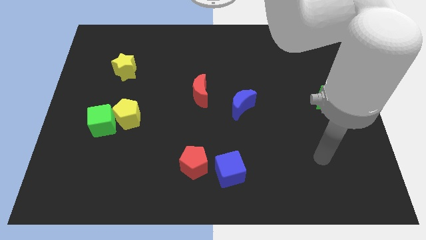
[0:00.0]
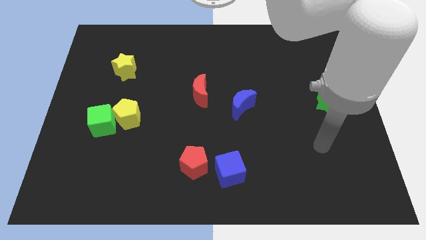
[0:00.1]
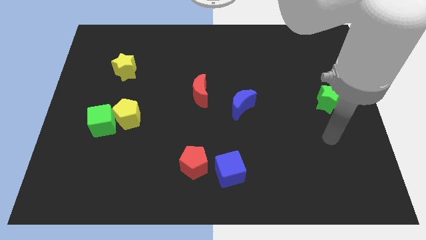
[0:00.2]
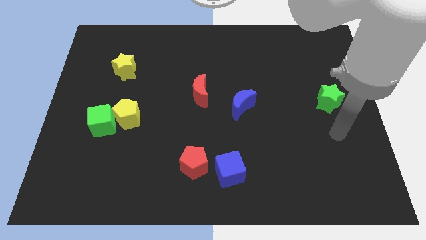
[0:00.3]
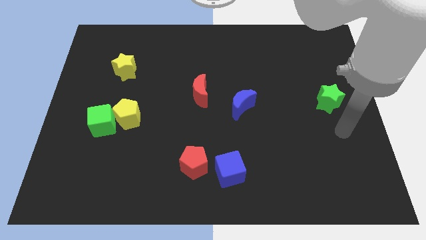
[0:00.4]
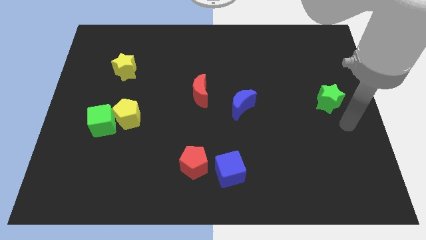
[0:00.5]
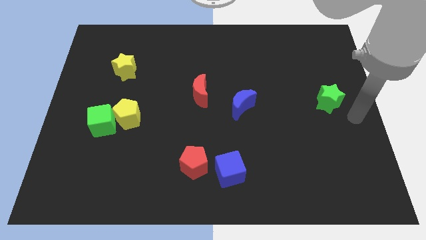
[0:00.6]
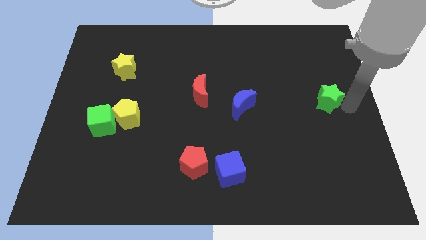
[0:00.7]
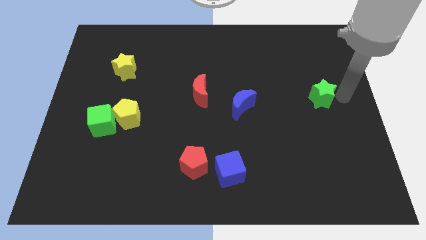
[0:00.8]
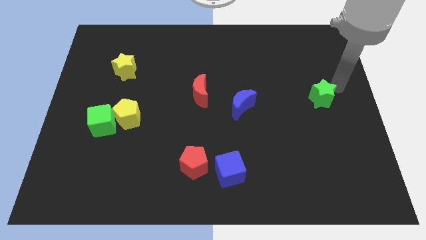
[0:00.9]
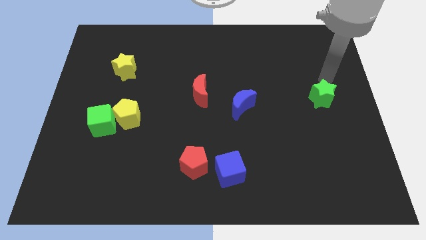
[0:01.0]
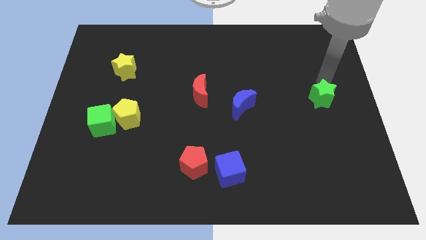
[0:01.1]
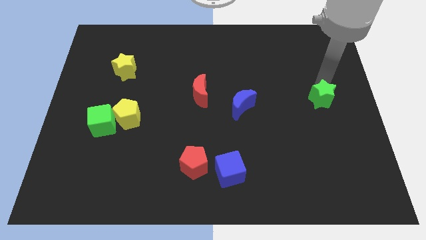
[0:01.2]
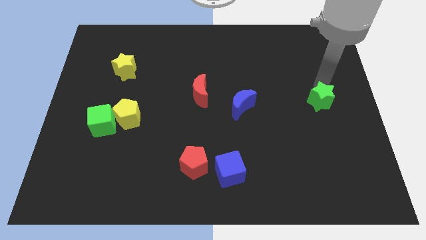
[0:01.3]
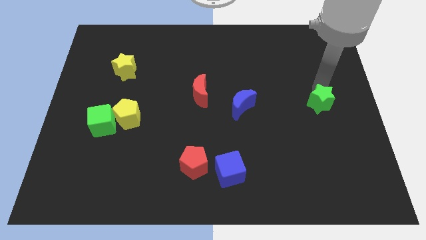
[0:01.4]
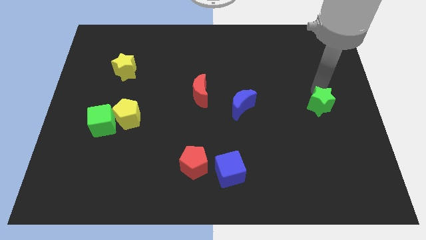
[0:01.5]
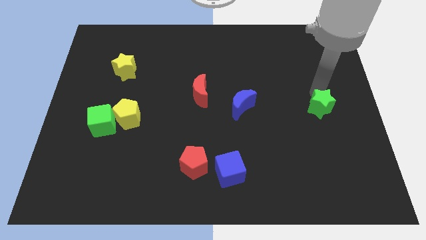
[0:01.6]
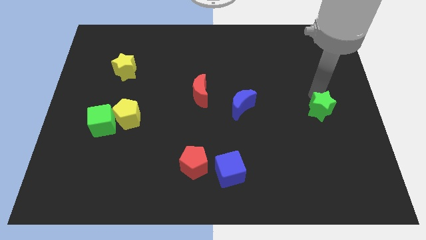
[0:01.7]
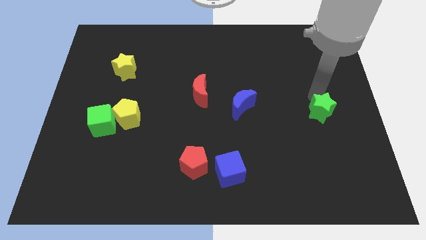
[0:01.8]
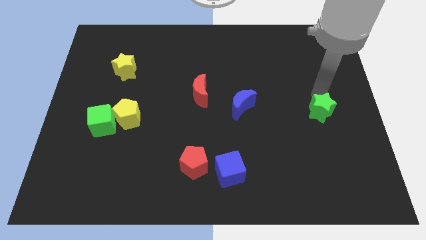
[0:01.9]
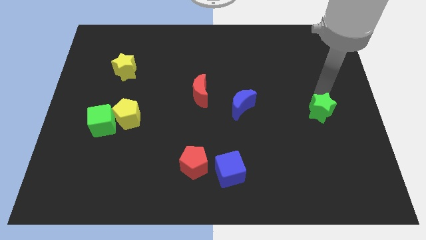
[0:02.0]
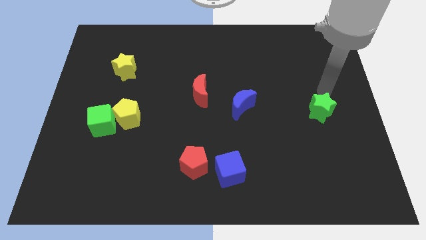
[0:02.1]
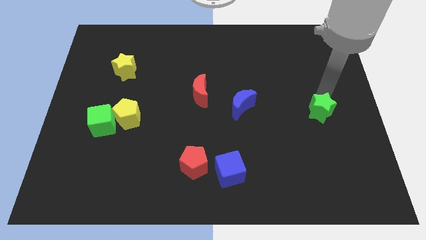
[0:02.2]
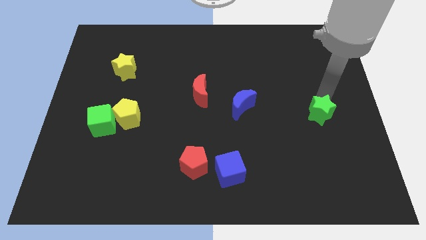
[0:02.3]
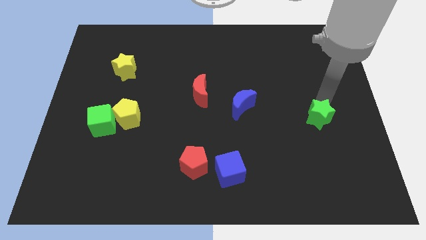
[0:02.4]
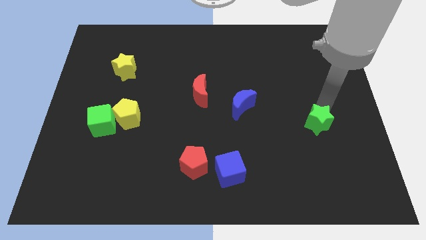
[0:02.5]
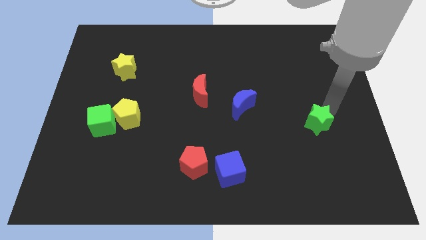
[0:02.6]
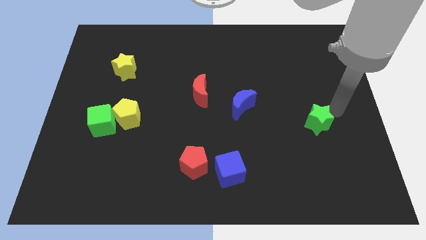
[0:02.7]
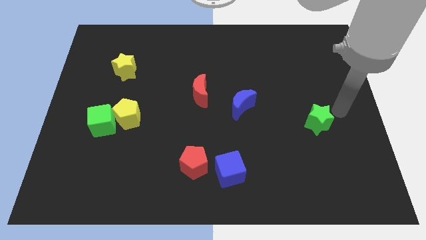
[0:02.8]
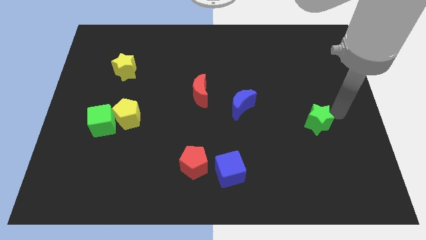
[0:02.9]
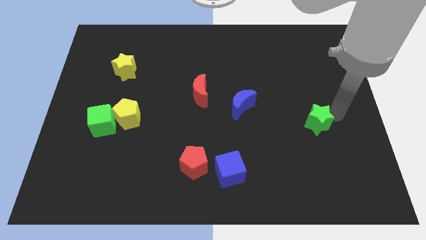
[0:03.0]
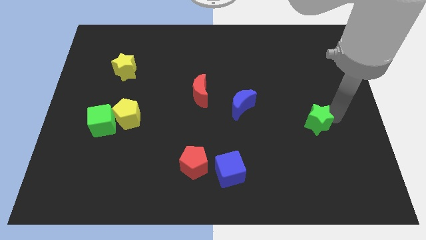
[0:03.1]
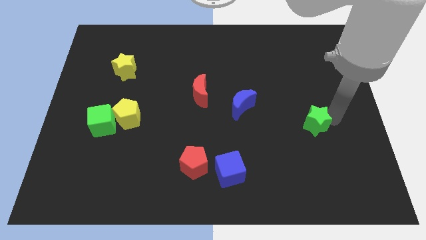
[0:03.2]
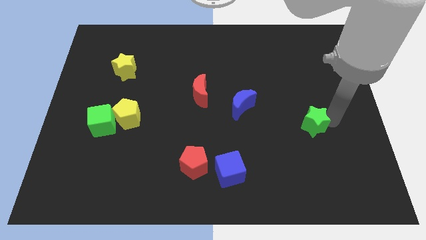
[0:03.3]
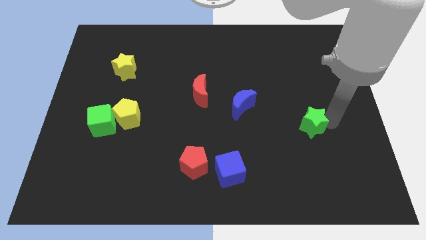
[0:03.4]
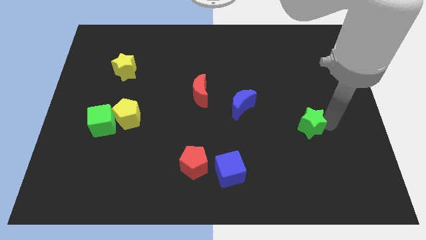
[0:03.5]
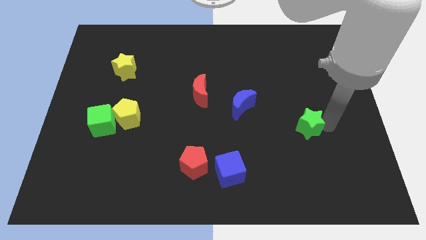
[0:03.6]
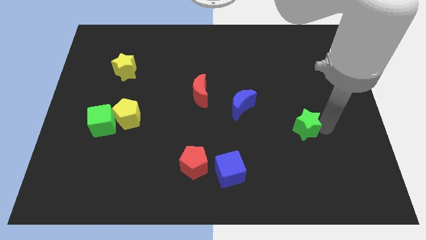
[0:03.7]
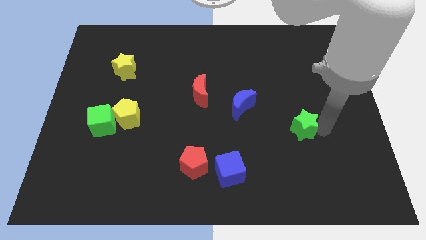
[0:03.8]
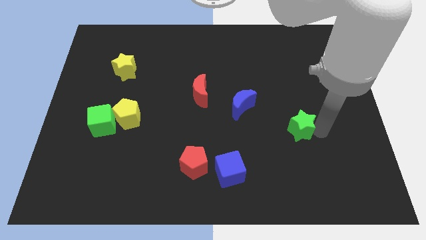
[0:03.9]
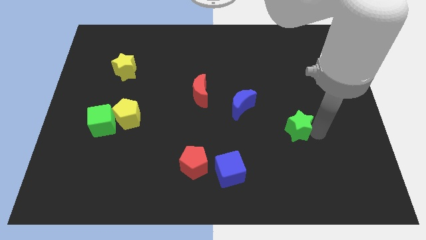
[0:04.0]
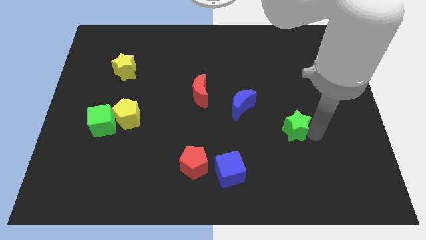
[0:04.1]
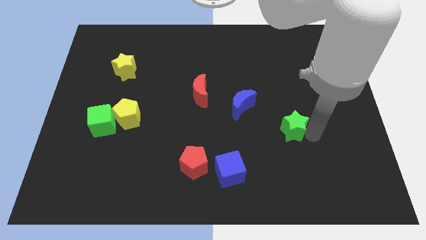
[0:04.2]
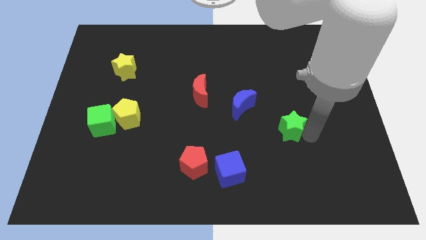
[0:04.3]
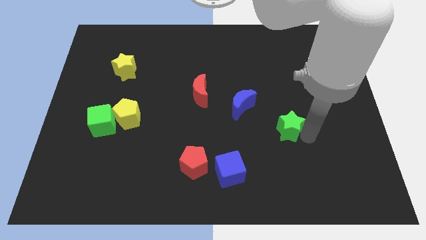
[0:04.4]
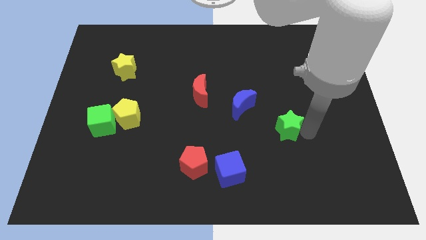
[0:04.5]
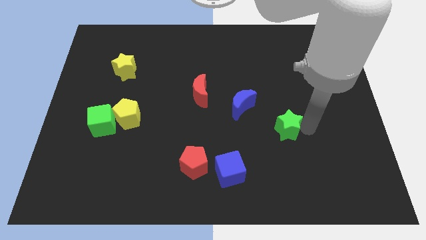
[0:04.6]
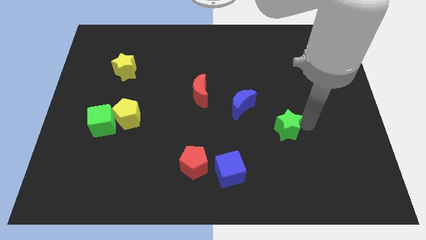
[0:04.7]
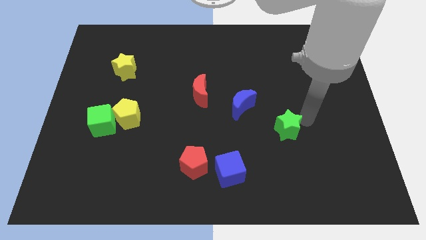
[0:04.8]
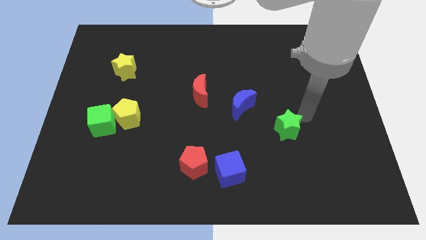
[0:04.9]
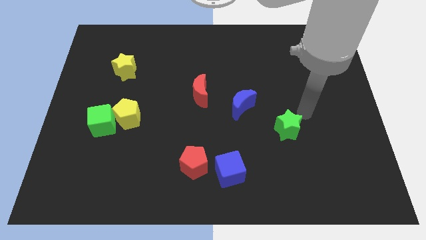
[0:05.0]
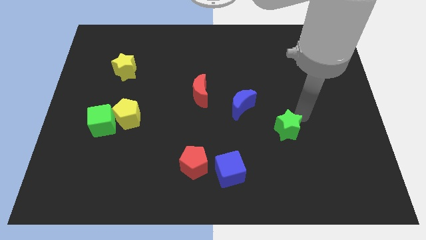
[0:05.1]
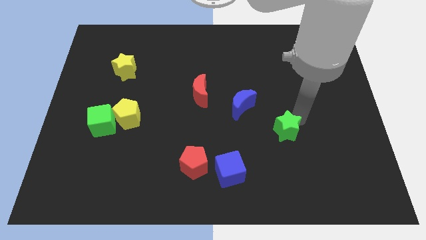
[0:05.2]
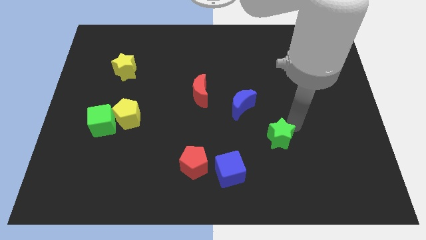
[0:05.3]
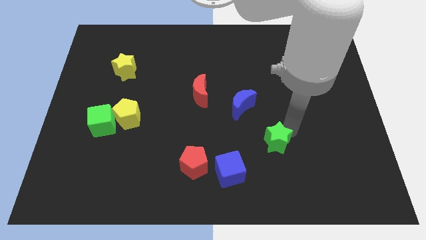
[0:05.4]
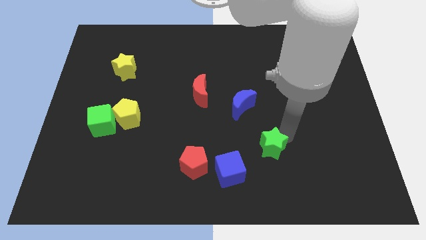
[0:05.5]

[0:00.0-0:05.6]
put the green star to the top right side of the blue cube

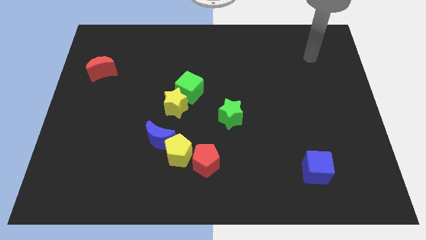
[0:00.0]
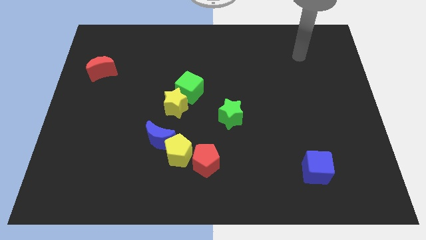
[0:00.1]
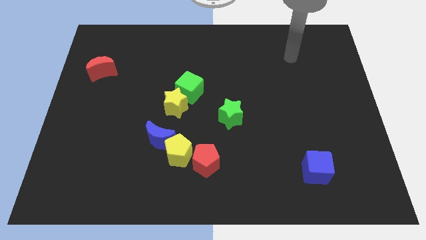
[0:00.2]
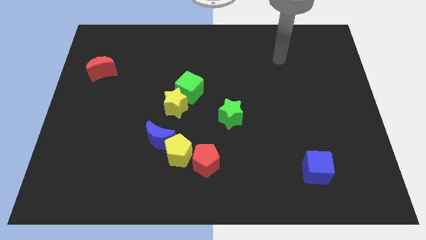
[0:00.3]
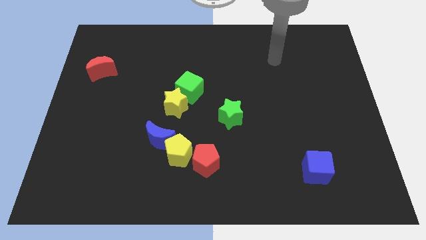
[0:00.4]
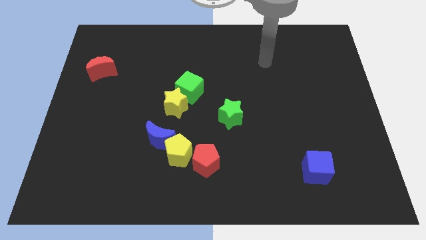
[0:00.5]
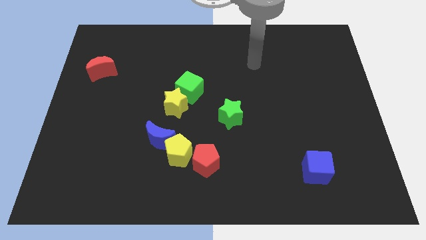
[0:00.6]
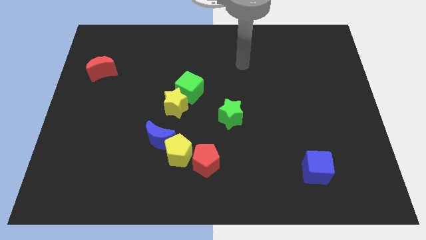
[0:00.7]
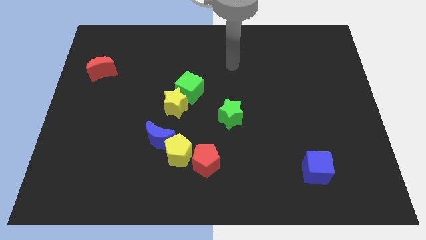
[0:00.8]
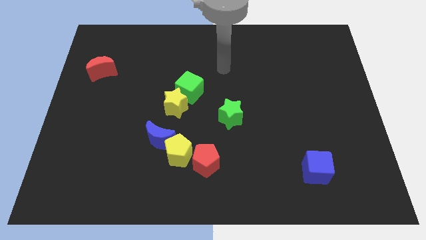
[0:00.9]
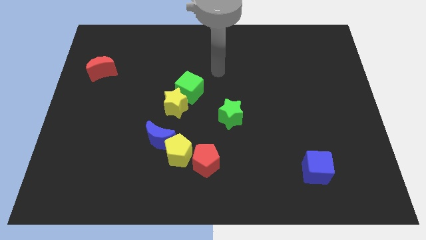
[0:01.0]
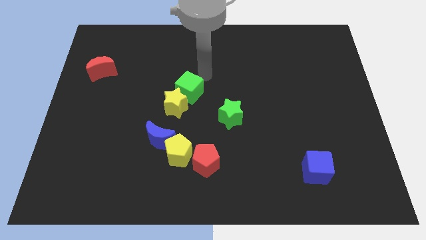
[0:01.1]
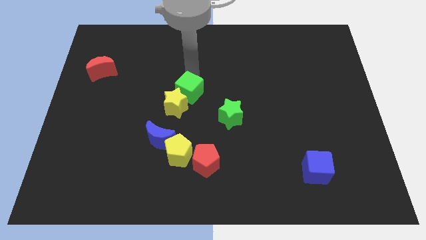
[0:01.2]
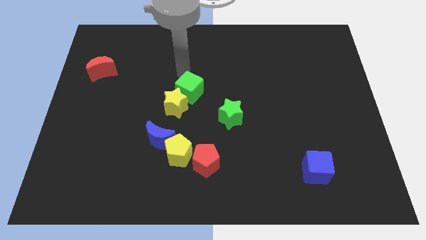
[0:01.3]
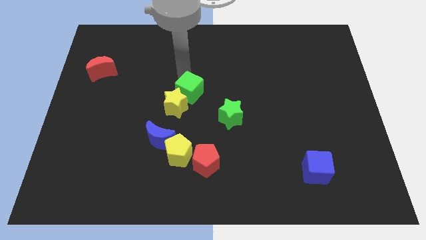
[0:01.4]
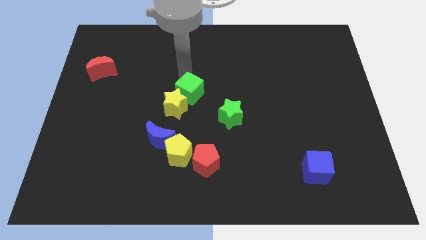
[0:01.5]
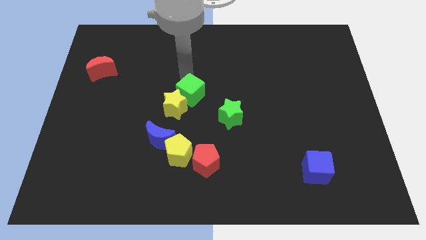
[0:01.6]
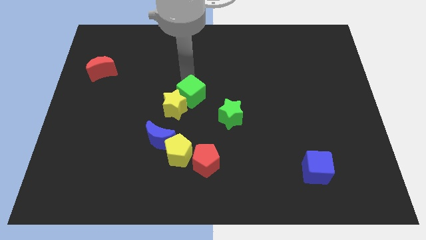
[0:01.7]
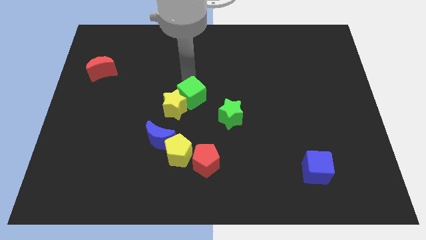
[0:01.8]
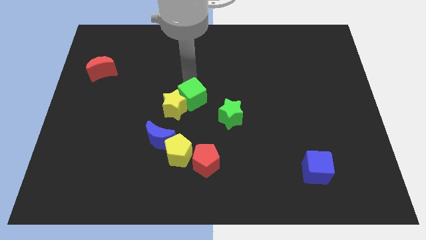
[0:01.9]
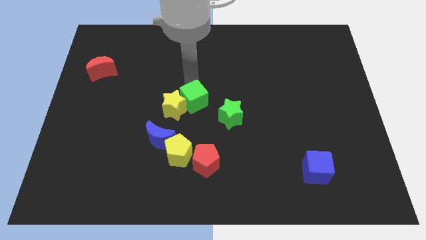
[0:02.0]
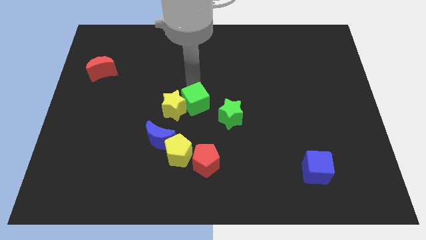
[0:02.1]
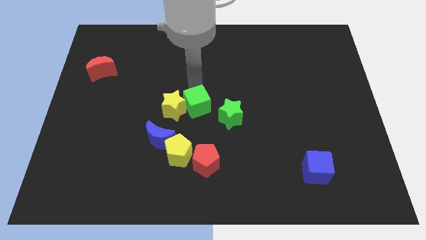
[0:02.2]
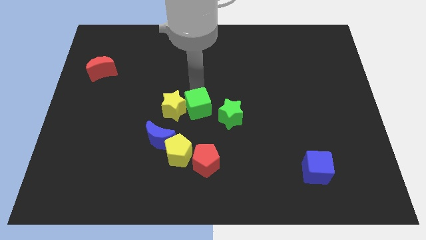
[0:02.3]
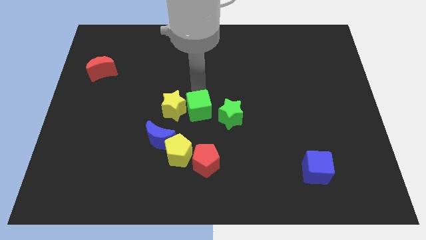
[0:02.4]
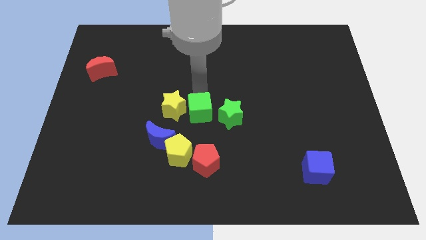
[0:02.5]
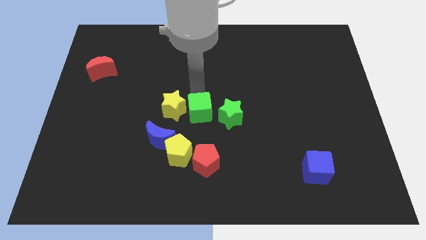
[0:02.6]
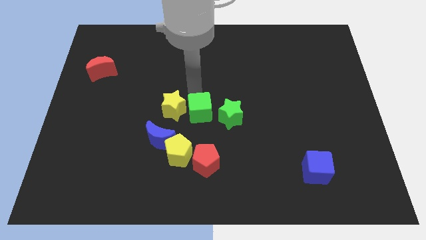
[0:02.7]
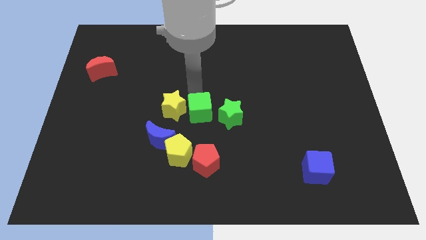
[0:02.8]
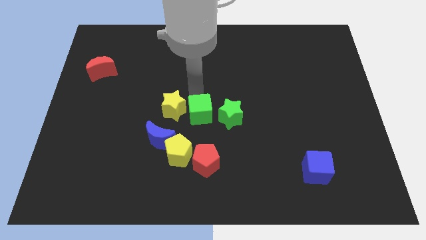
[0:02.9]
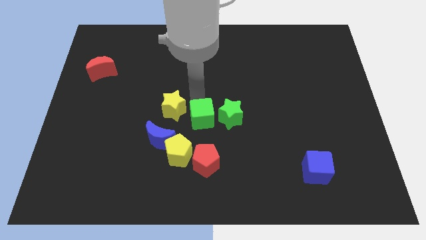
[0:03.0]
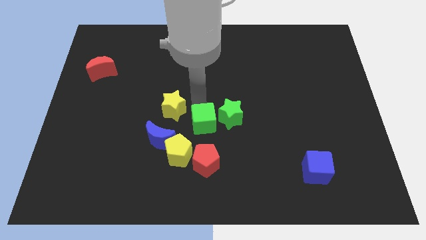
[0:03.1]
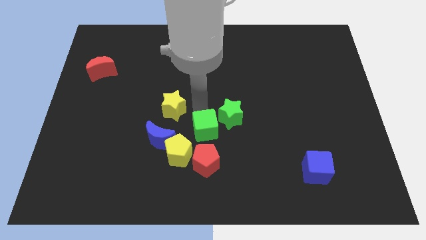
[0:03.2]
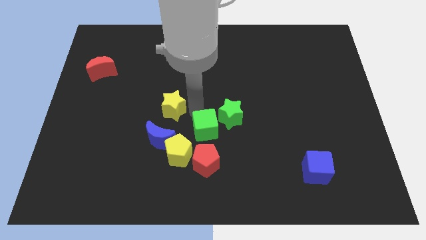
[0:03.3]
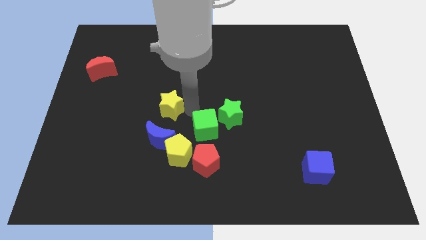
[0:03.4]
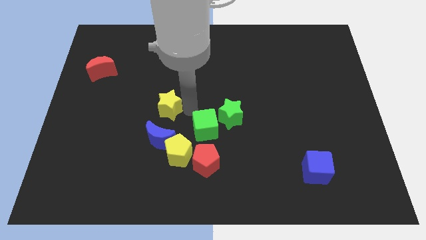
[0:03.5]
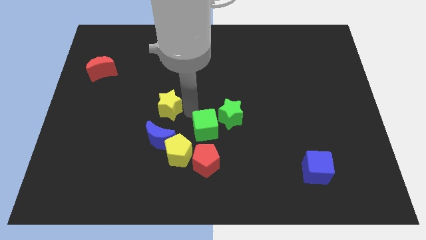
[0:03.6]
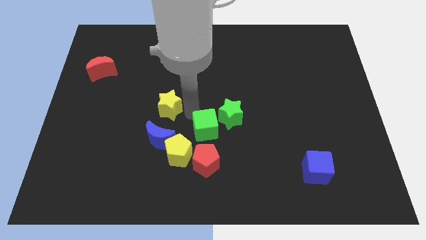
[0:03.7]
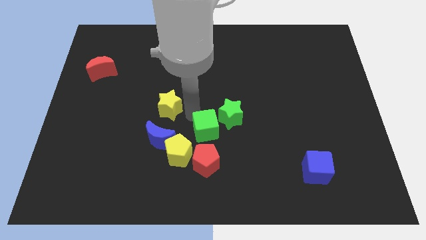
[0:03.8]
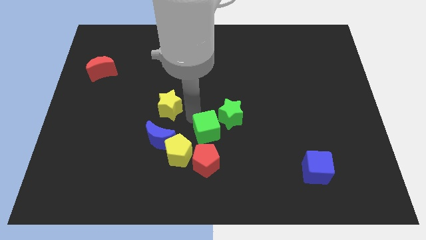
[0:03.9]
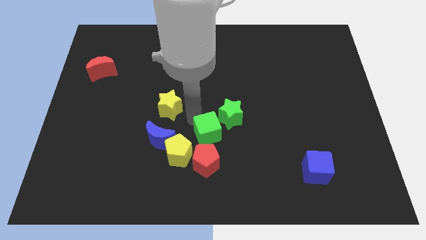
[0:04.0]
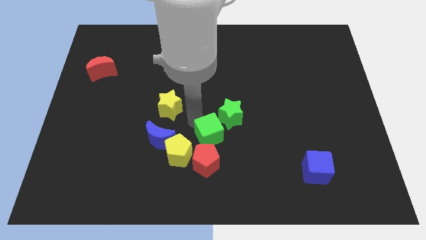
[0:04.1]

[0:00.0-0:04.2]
put the green cube right of the yellow pentagon
